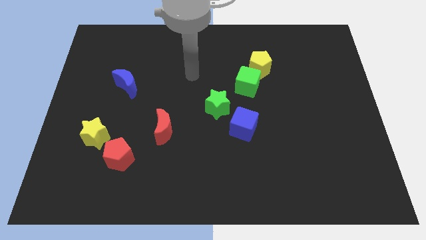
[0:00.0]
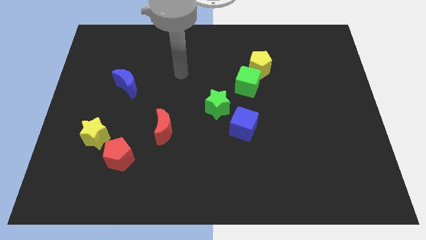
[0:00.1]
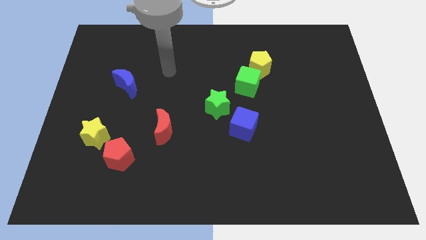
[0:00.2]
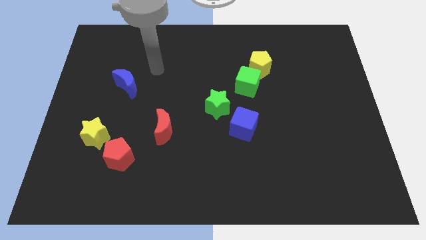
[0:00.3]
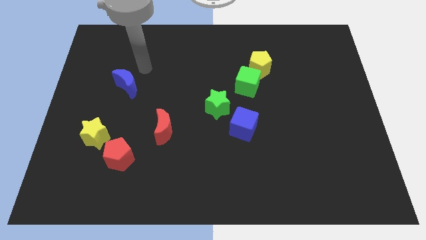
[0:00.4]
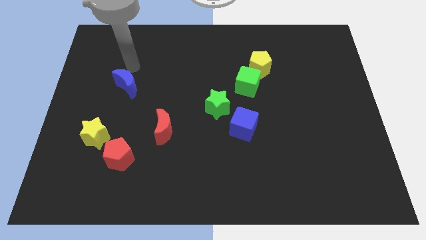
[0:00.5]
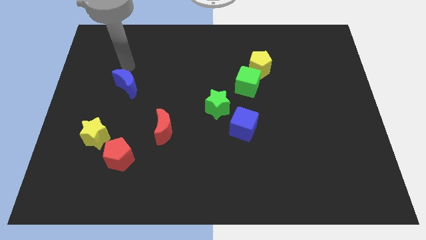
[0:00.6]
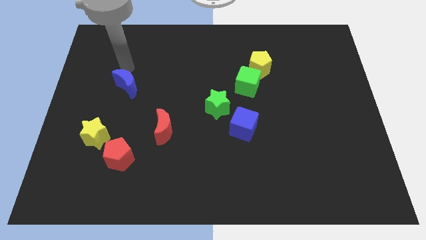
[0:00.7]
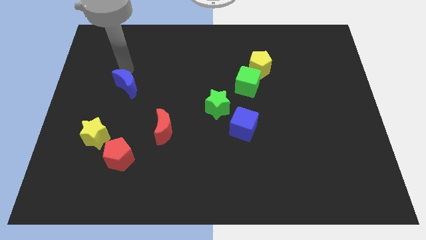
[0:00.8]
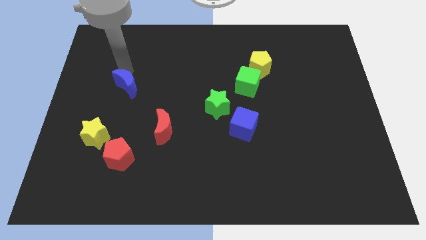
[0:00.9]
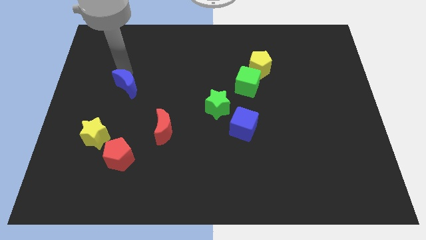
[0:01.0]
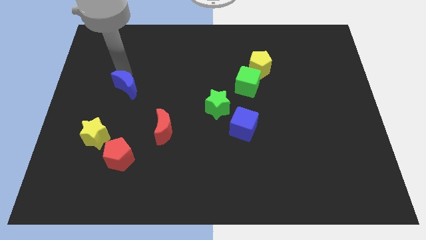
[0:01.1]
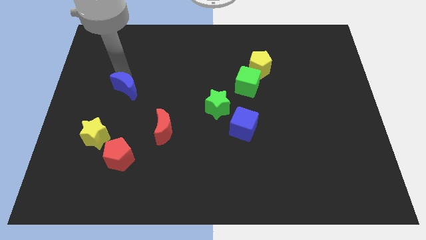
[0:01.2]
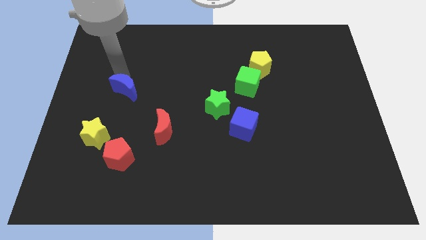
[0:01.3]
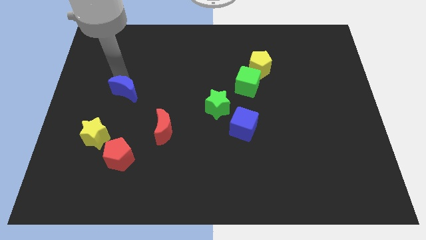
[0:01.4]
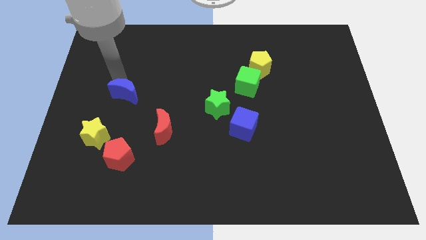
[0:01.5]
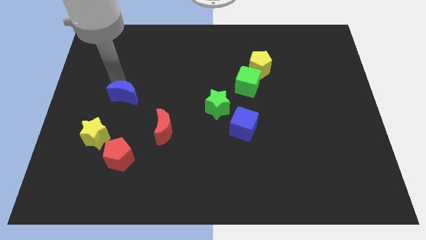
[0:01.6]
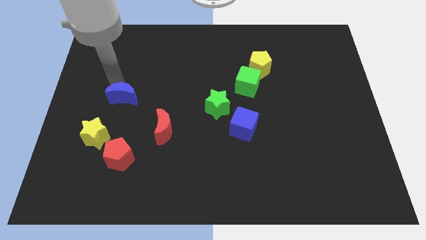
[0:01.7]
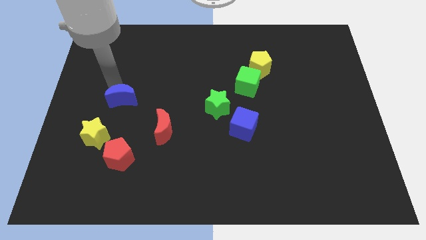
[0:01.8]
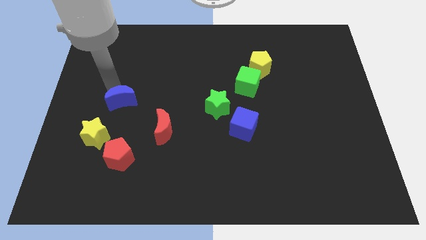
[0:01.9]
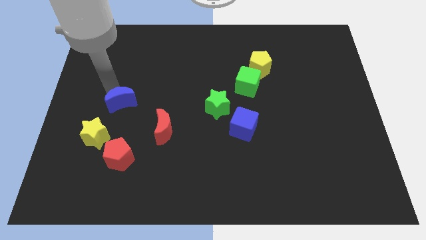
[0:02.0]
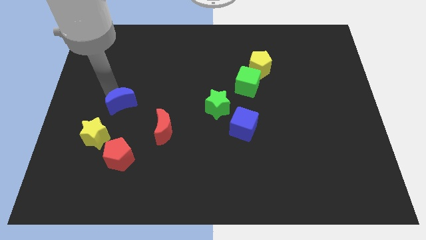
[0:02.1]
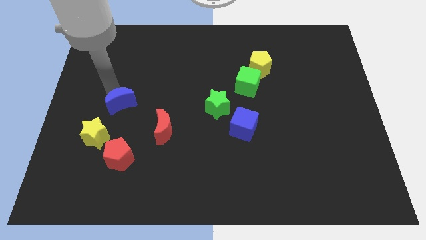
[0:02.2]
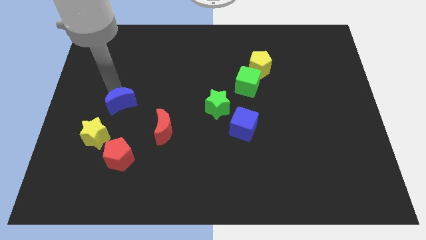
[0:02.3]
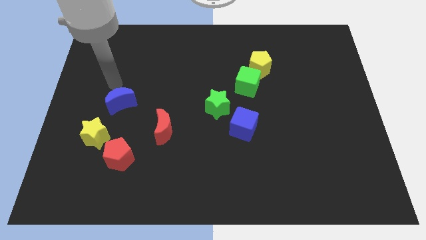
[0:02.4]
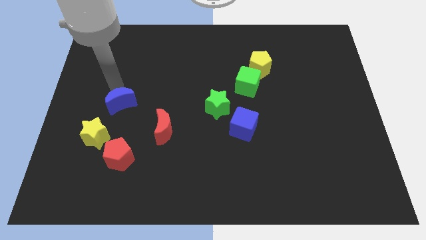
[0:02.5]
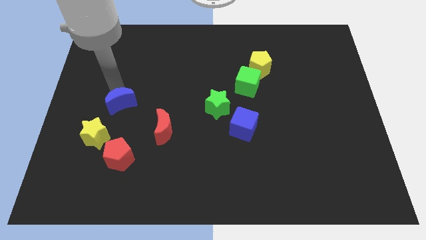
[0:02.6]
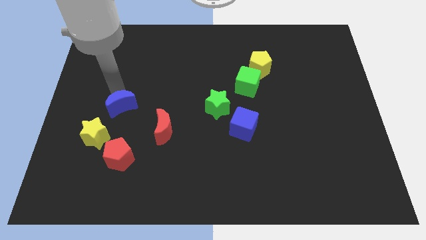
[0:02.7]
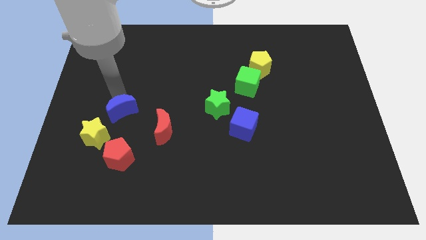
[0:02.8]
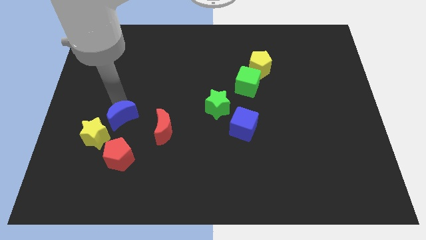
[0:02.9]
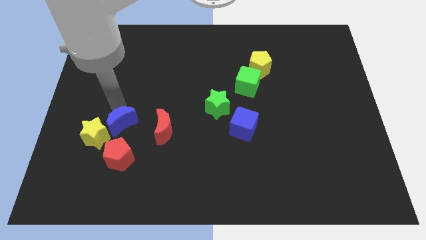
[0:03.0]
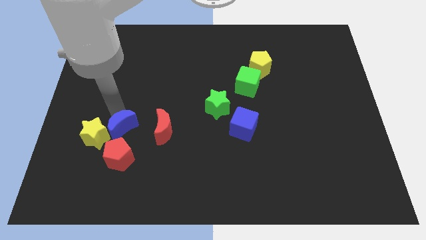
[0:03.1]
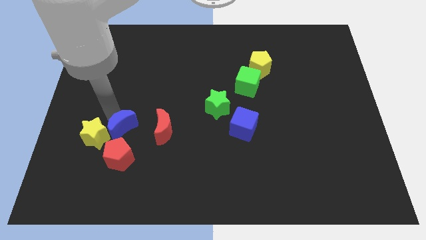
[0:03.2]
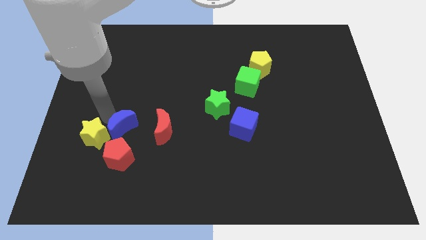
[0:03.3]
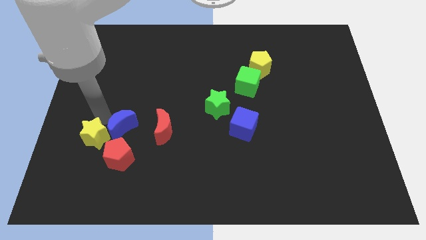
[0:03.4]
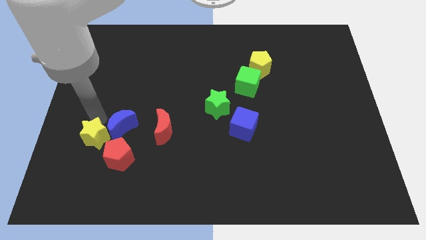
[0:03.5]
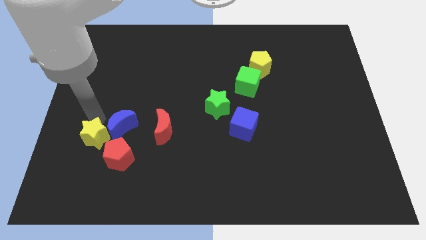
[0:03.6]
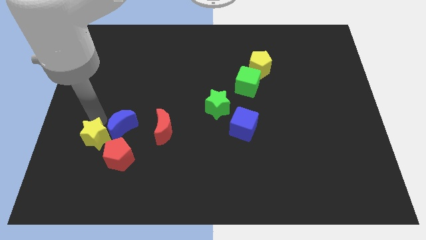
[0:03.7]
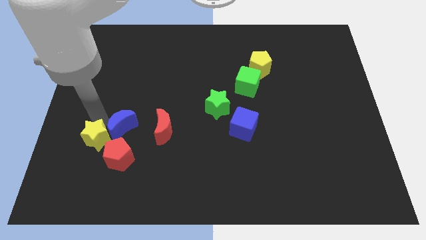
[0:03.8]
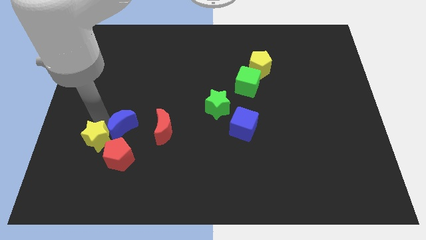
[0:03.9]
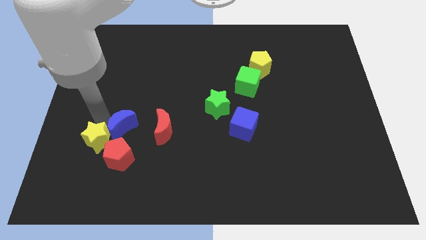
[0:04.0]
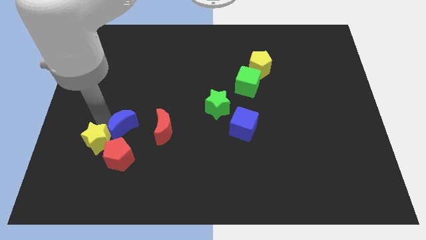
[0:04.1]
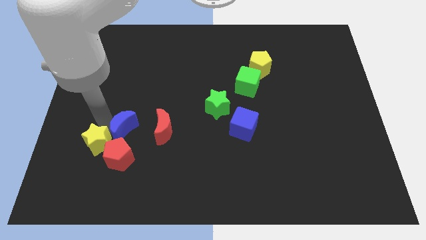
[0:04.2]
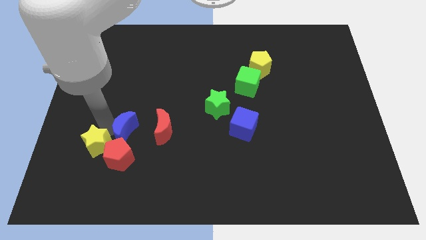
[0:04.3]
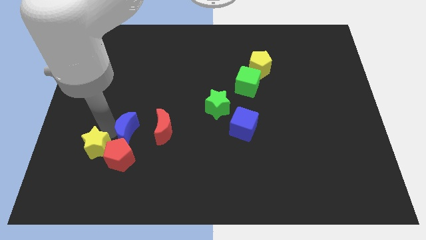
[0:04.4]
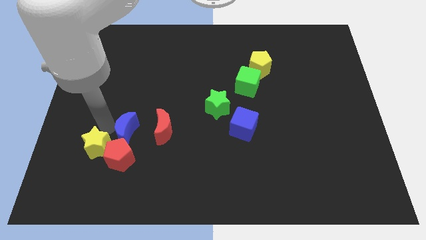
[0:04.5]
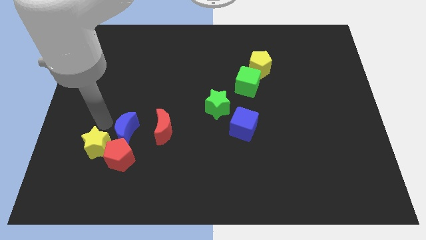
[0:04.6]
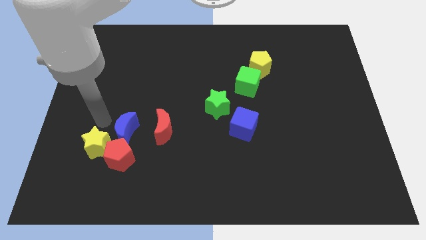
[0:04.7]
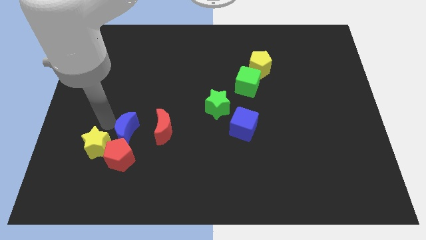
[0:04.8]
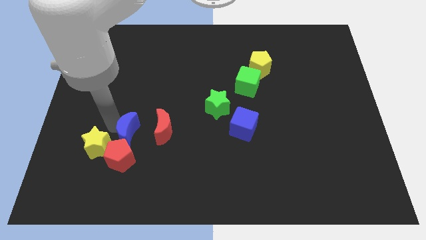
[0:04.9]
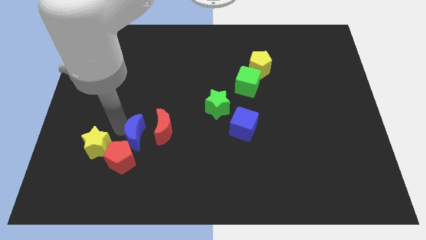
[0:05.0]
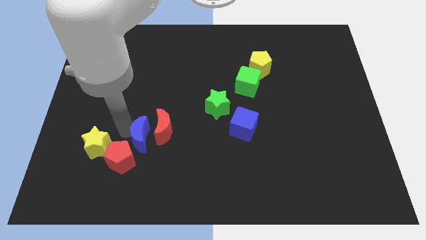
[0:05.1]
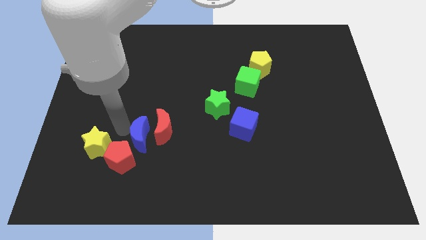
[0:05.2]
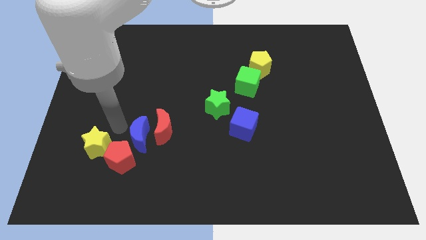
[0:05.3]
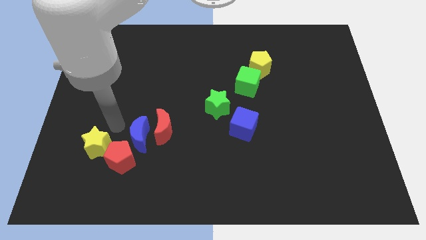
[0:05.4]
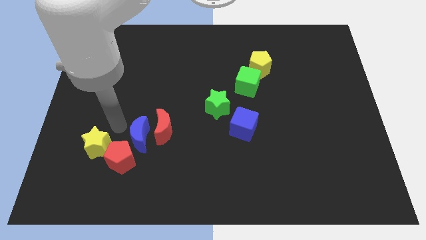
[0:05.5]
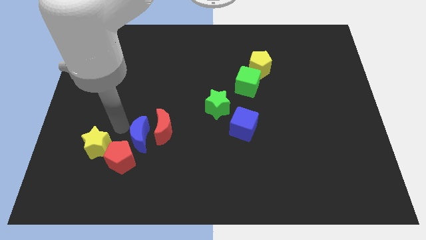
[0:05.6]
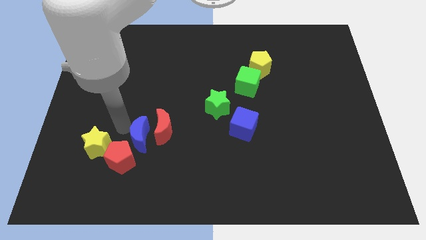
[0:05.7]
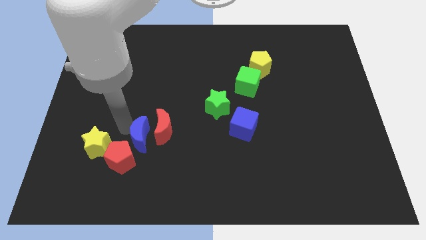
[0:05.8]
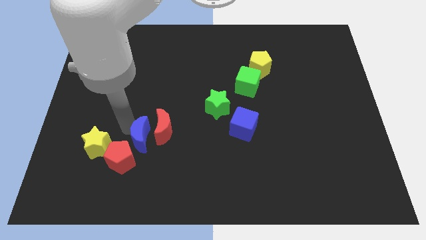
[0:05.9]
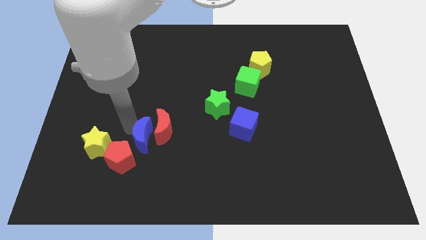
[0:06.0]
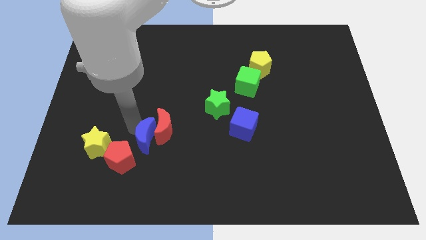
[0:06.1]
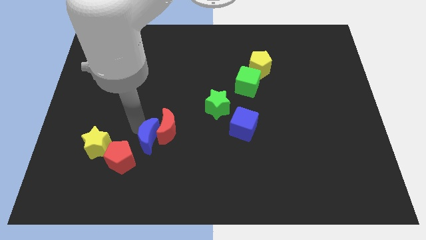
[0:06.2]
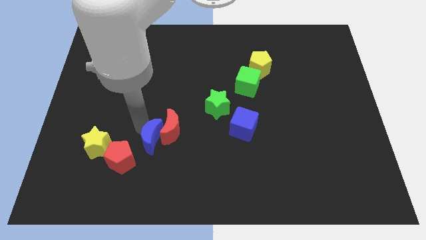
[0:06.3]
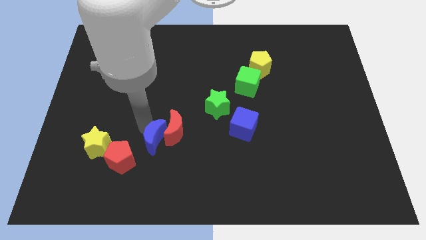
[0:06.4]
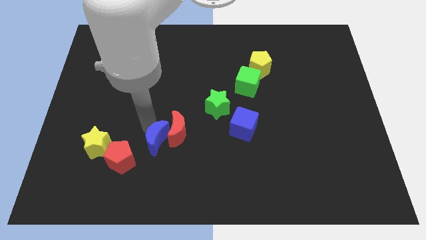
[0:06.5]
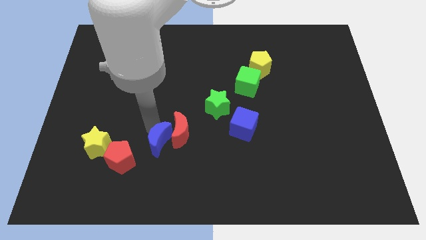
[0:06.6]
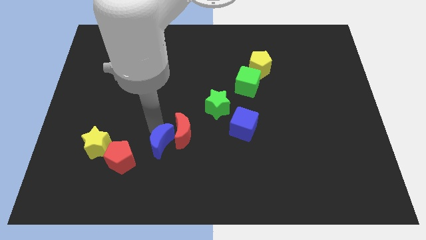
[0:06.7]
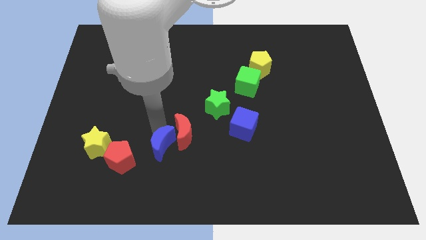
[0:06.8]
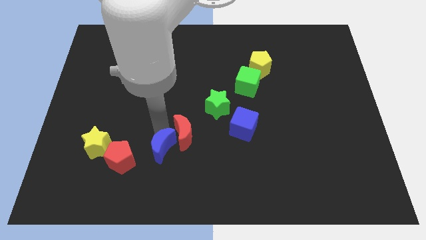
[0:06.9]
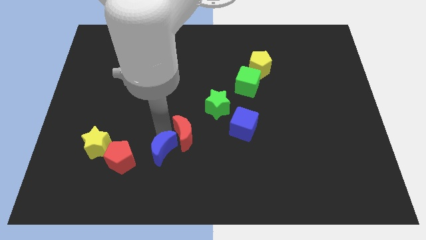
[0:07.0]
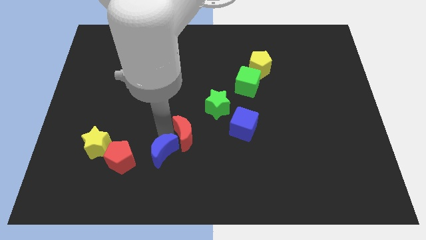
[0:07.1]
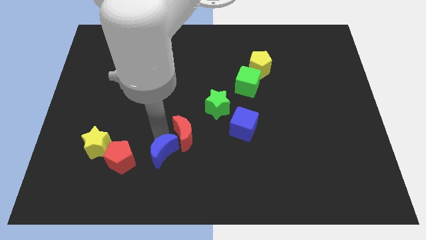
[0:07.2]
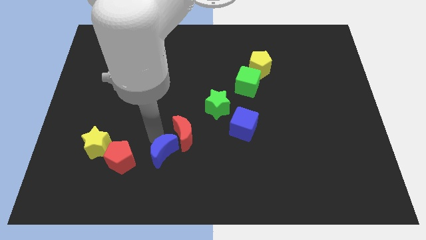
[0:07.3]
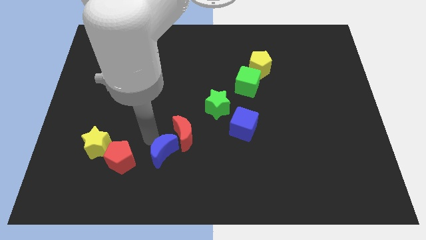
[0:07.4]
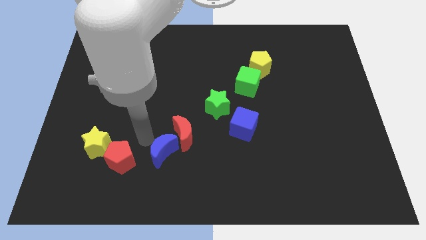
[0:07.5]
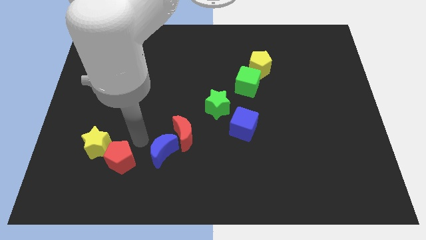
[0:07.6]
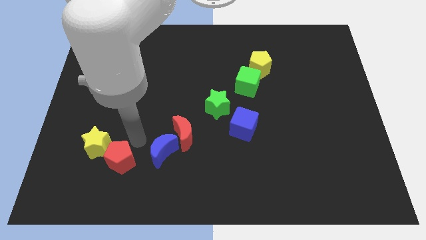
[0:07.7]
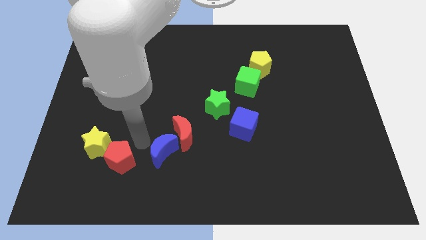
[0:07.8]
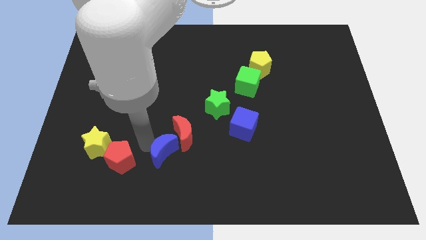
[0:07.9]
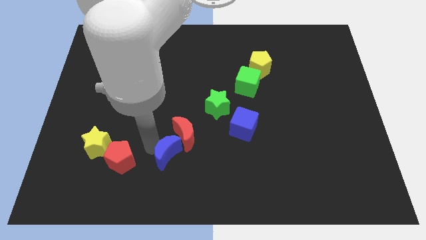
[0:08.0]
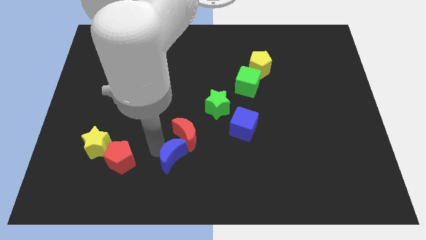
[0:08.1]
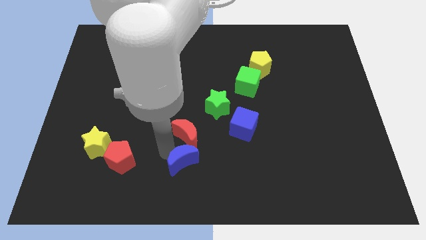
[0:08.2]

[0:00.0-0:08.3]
move the blue moon to the bottom side
